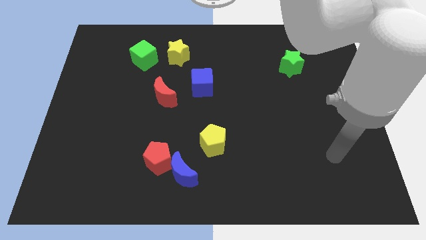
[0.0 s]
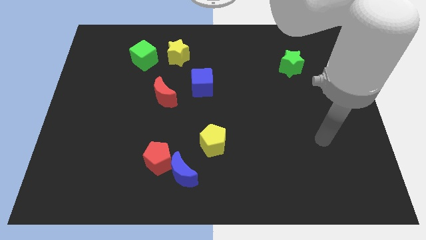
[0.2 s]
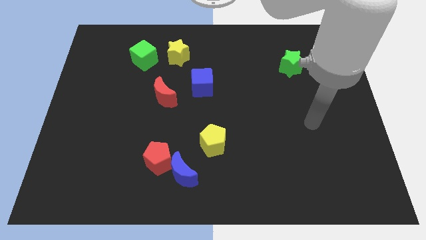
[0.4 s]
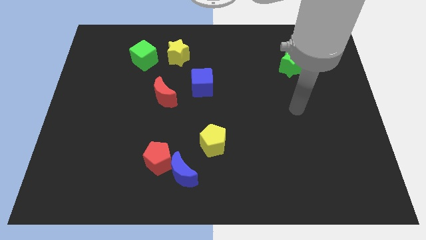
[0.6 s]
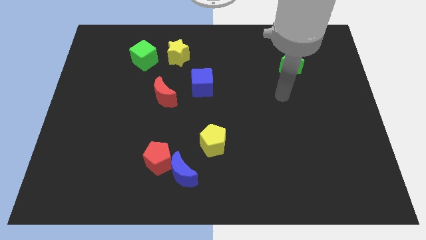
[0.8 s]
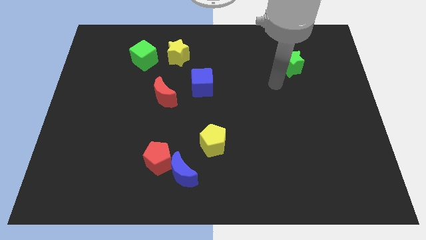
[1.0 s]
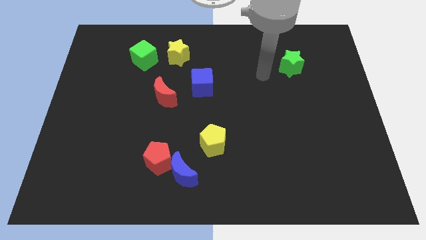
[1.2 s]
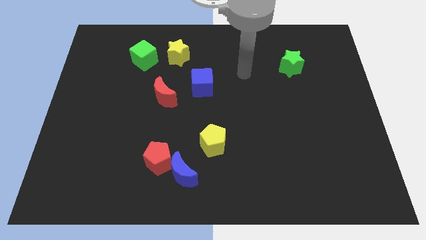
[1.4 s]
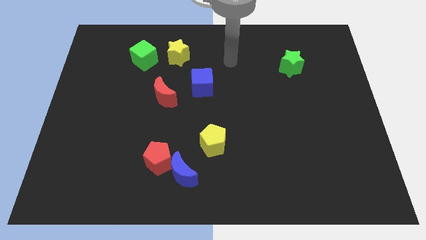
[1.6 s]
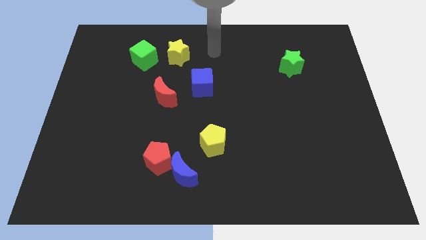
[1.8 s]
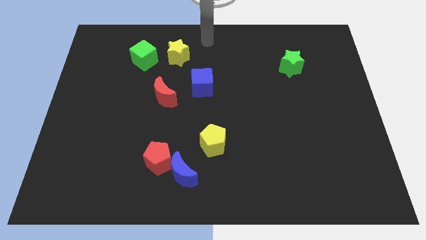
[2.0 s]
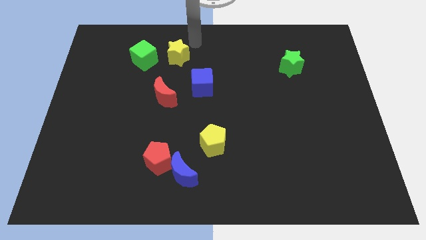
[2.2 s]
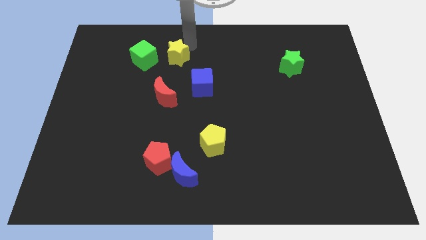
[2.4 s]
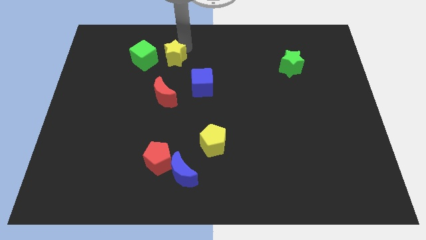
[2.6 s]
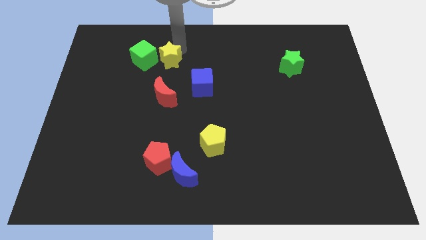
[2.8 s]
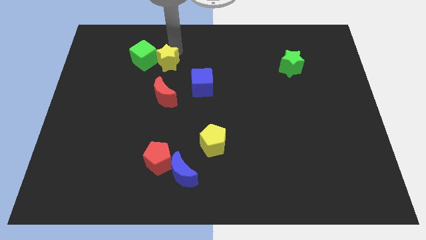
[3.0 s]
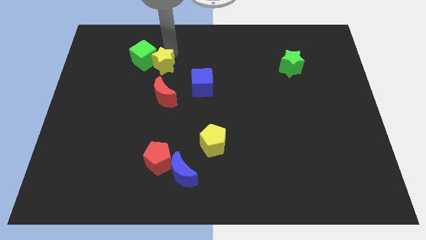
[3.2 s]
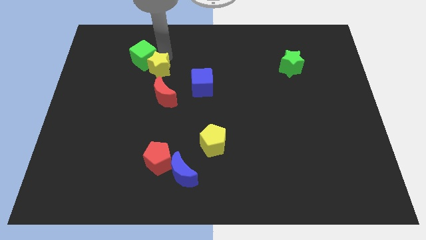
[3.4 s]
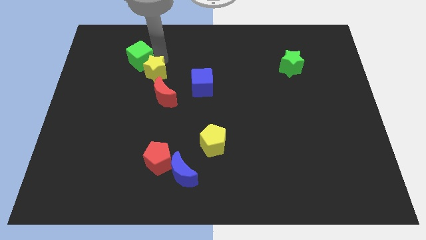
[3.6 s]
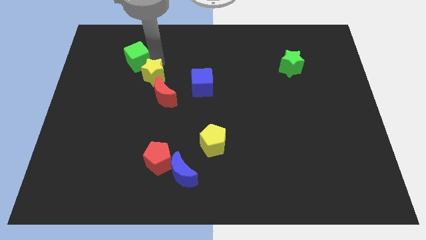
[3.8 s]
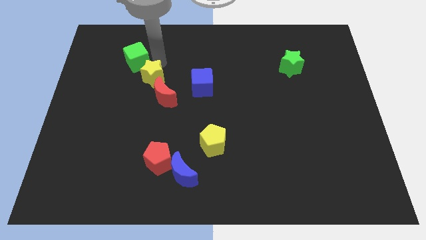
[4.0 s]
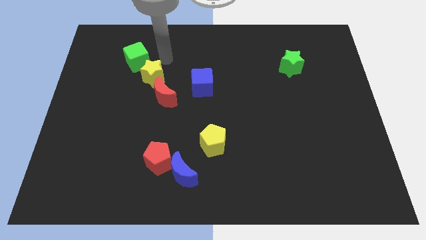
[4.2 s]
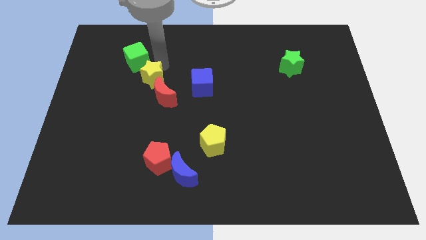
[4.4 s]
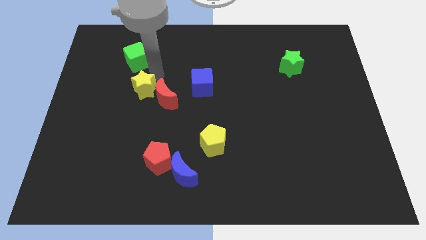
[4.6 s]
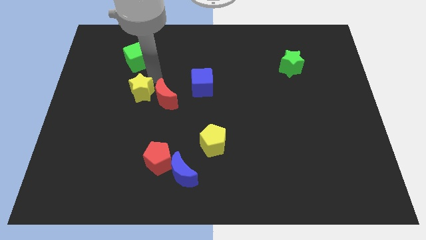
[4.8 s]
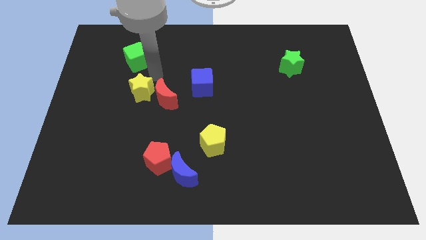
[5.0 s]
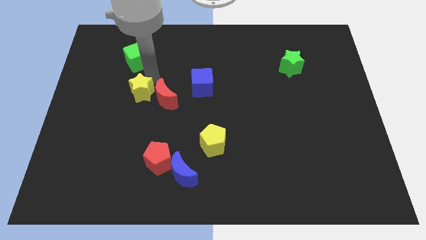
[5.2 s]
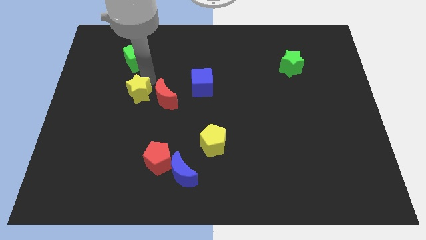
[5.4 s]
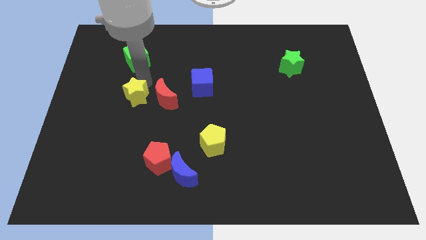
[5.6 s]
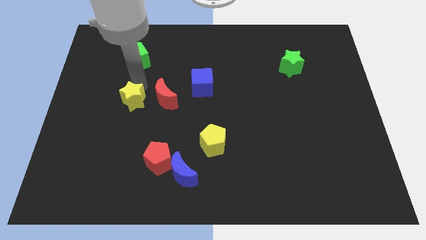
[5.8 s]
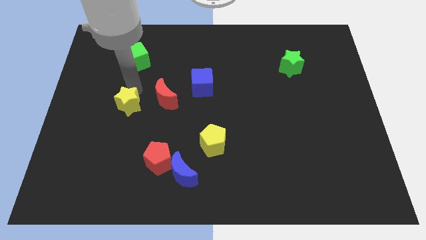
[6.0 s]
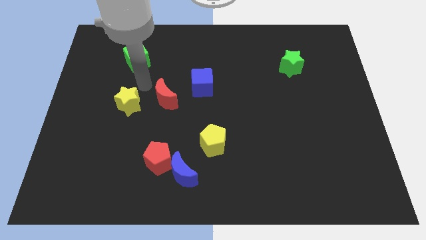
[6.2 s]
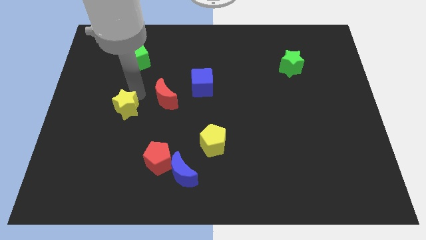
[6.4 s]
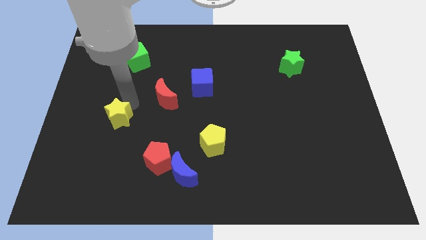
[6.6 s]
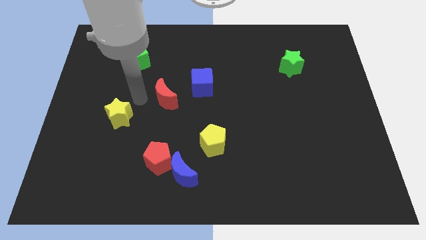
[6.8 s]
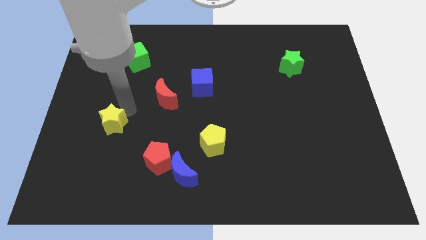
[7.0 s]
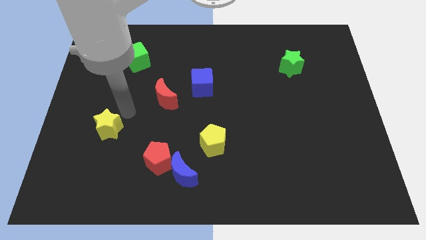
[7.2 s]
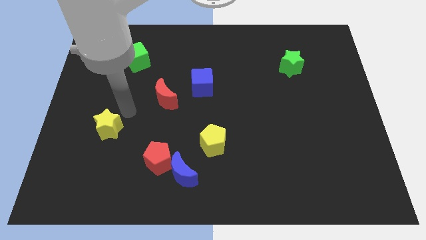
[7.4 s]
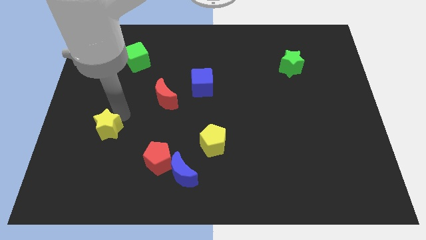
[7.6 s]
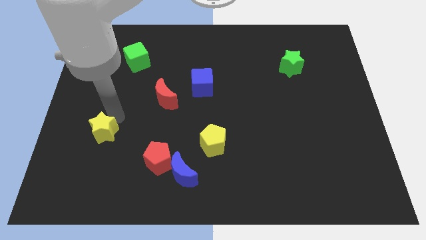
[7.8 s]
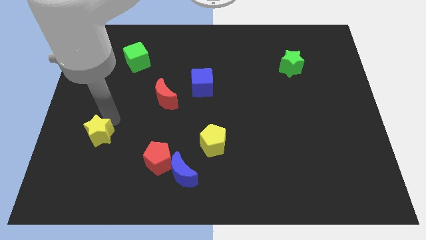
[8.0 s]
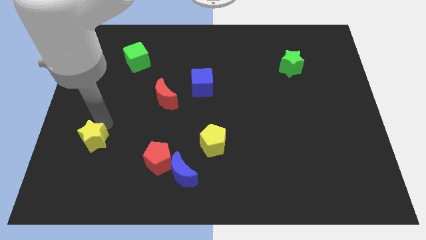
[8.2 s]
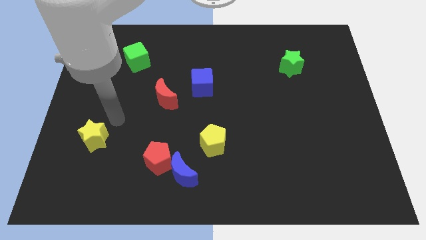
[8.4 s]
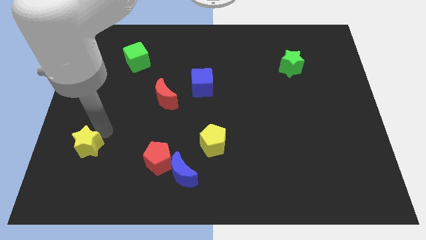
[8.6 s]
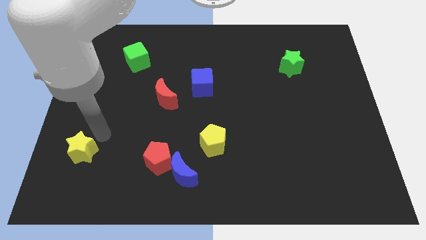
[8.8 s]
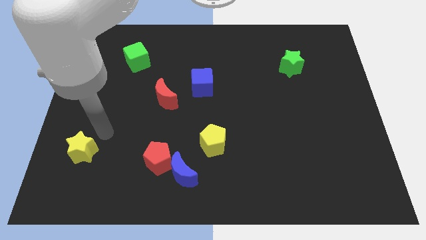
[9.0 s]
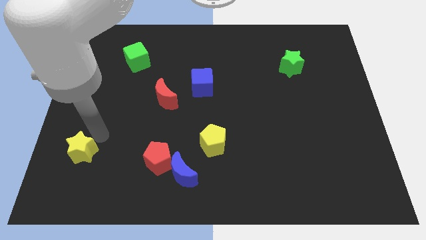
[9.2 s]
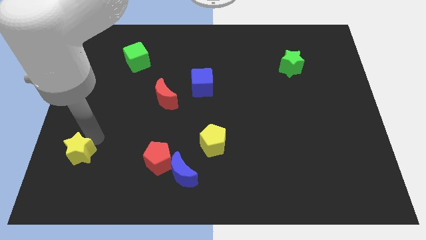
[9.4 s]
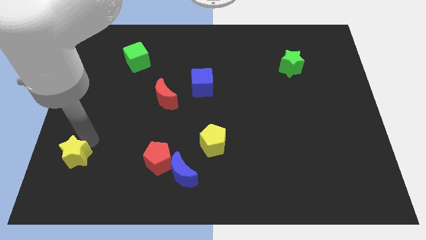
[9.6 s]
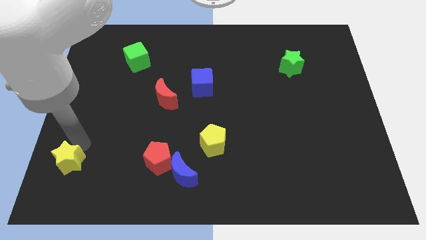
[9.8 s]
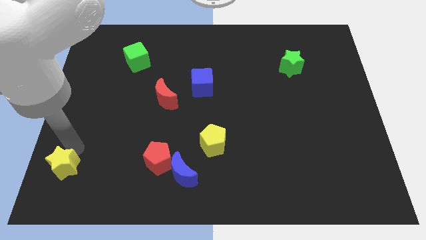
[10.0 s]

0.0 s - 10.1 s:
put the yellow star to the lower left corner

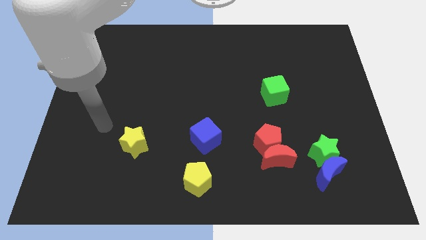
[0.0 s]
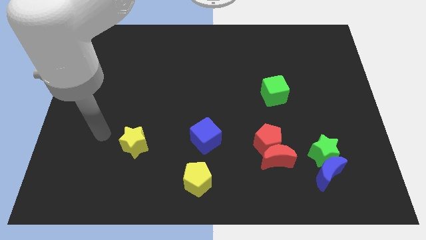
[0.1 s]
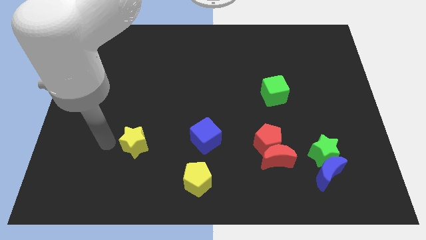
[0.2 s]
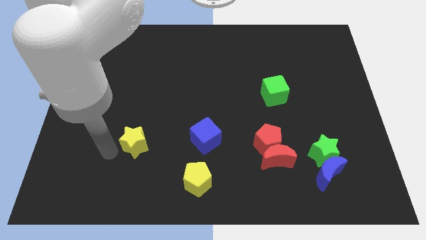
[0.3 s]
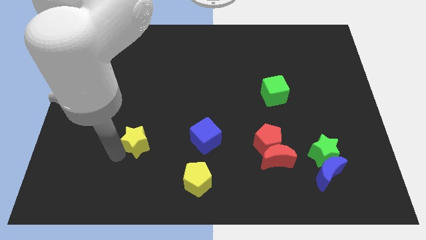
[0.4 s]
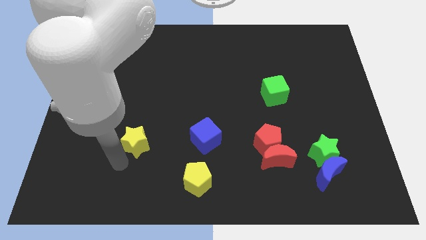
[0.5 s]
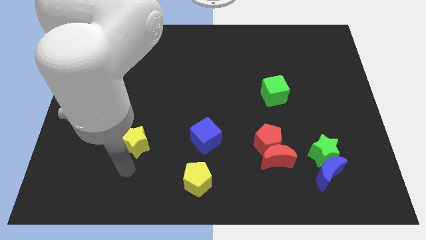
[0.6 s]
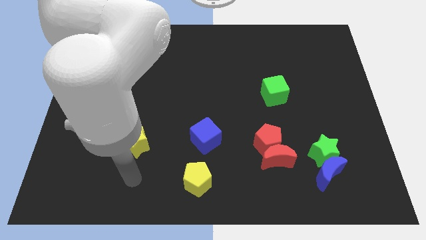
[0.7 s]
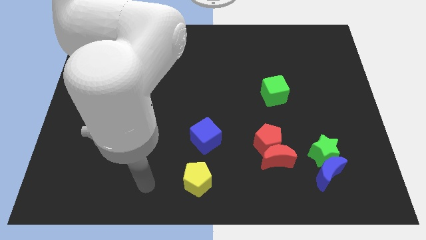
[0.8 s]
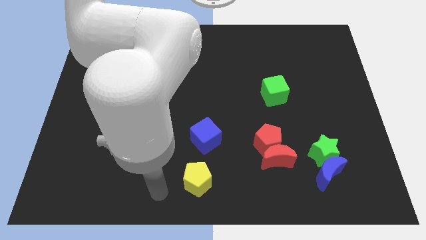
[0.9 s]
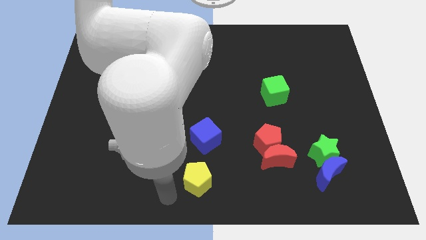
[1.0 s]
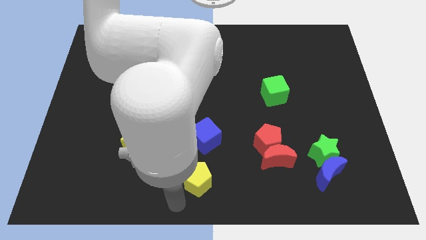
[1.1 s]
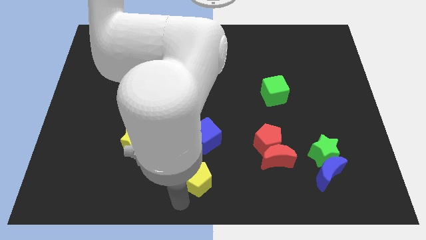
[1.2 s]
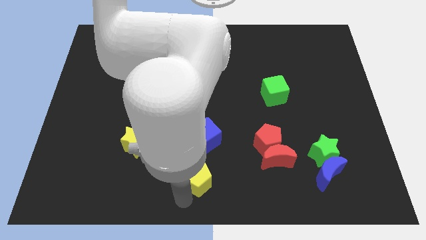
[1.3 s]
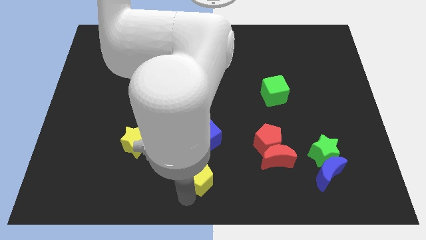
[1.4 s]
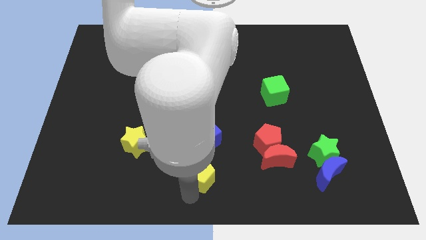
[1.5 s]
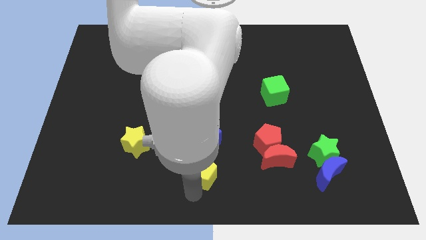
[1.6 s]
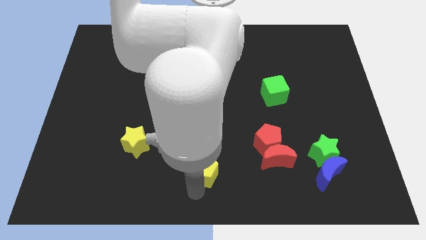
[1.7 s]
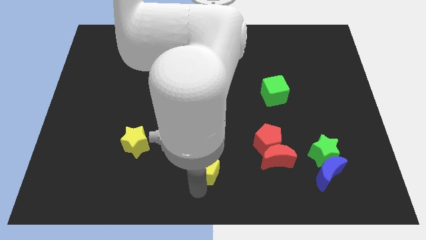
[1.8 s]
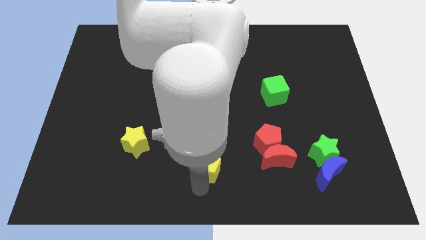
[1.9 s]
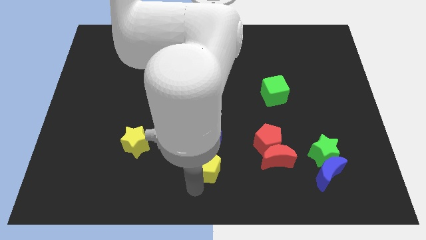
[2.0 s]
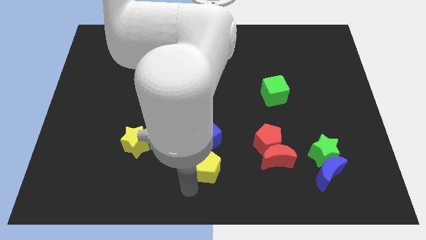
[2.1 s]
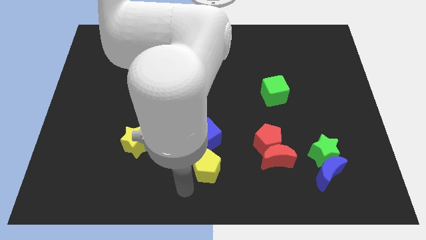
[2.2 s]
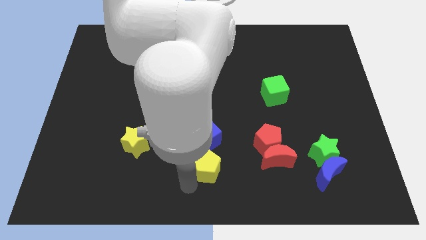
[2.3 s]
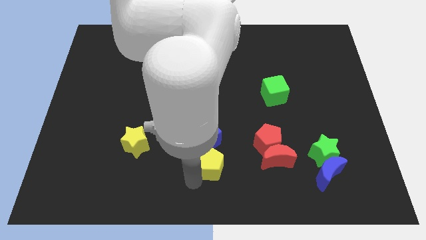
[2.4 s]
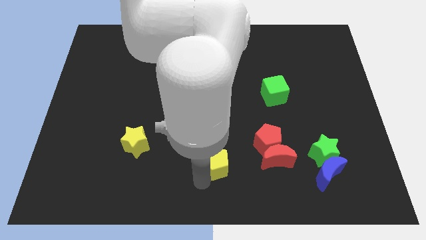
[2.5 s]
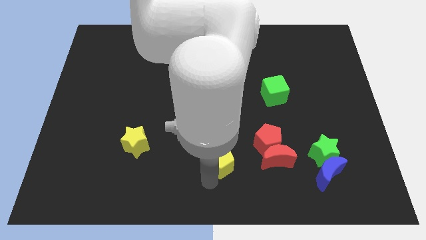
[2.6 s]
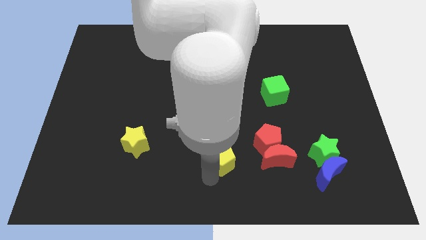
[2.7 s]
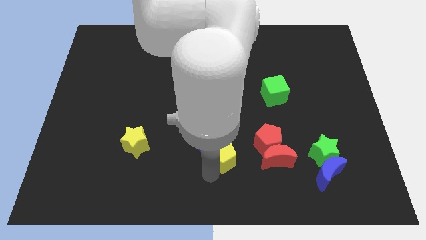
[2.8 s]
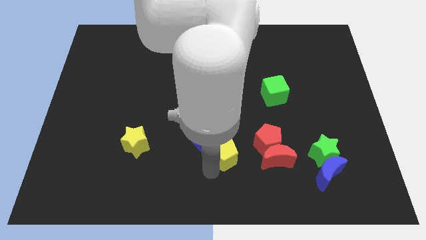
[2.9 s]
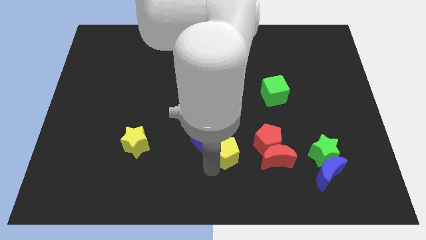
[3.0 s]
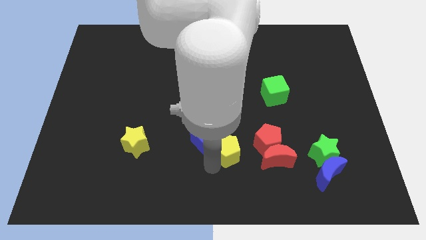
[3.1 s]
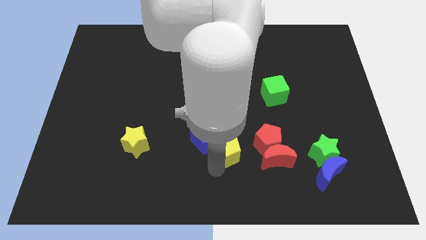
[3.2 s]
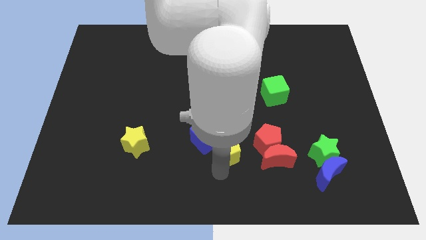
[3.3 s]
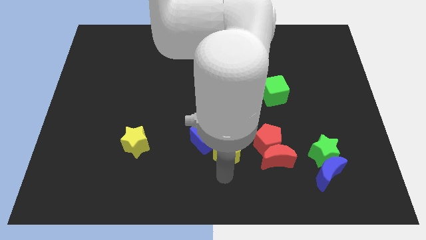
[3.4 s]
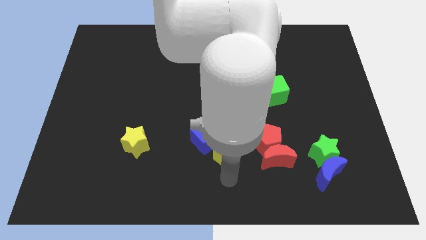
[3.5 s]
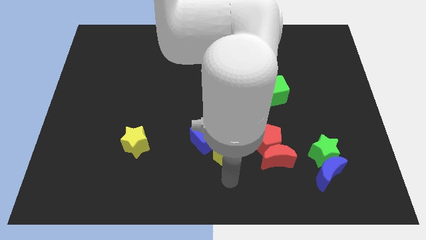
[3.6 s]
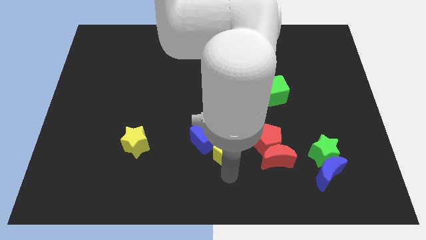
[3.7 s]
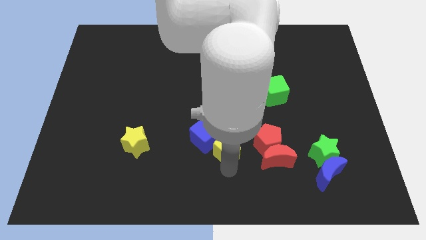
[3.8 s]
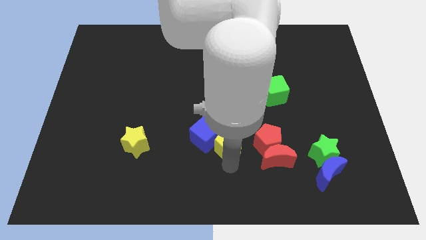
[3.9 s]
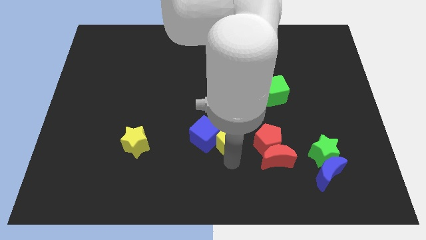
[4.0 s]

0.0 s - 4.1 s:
push the yellow pentagon to the middle
